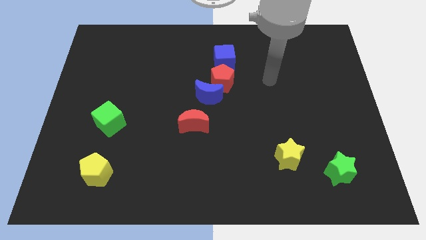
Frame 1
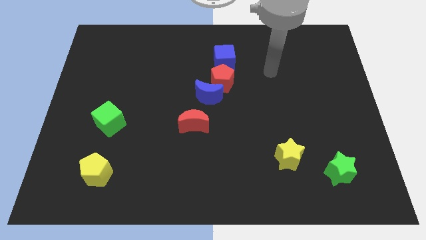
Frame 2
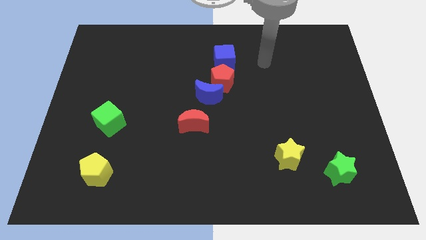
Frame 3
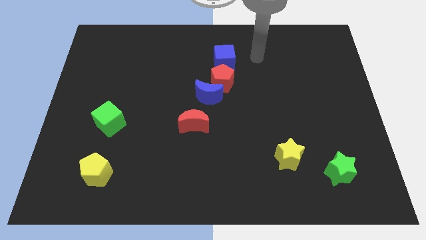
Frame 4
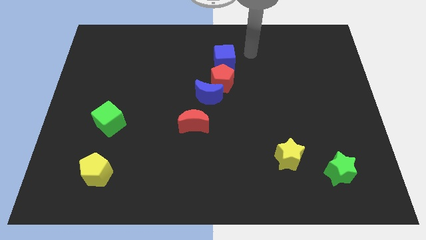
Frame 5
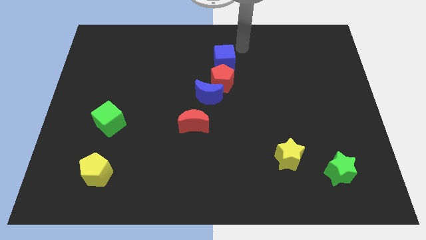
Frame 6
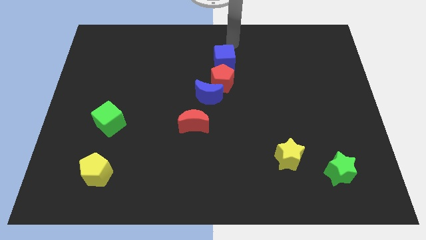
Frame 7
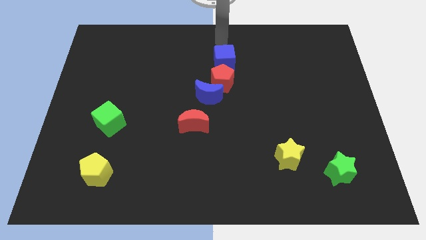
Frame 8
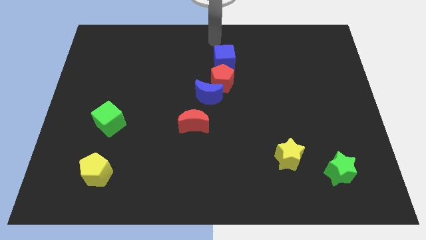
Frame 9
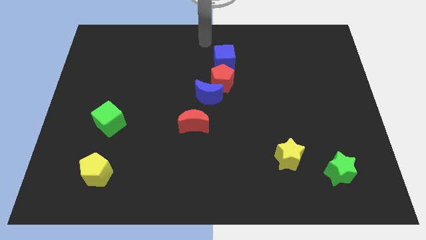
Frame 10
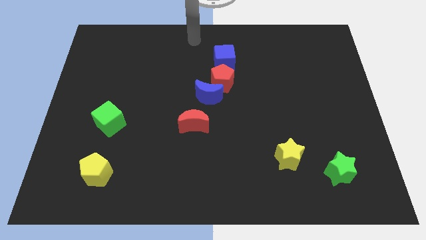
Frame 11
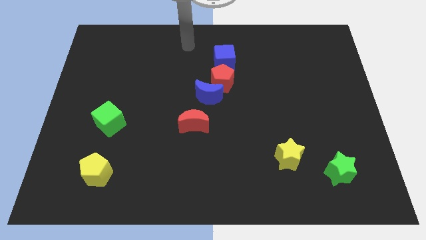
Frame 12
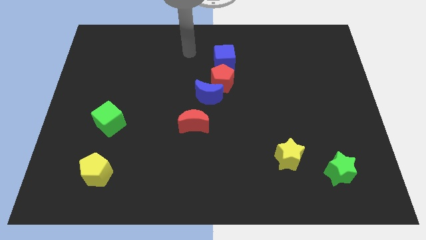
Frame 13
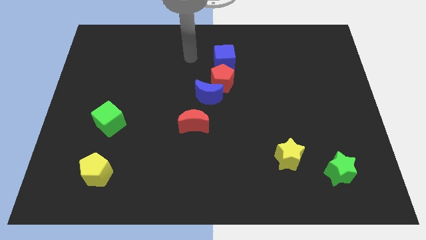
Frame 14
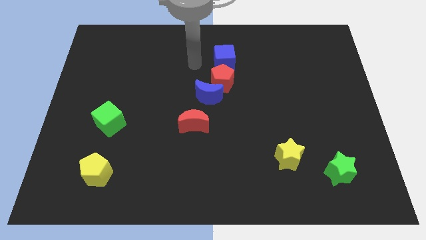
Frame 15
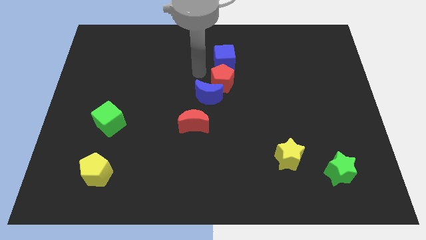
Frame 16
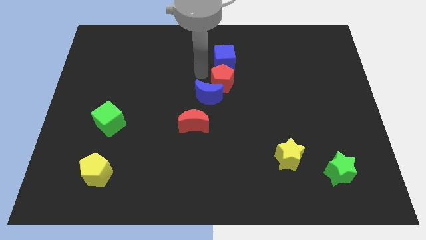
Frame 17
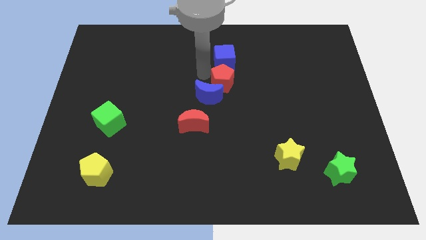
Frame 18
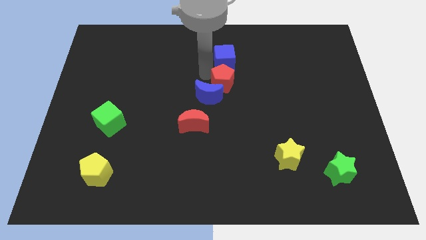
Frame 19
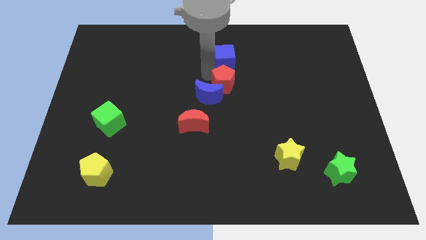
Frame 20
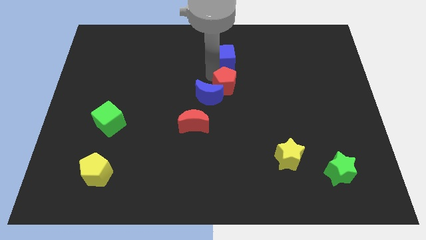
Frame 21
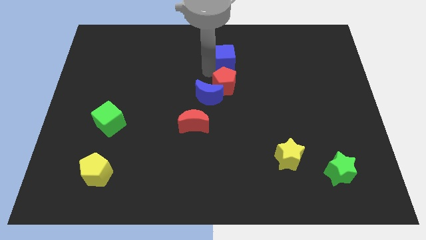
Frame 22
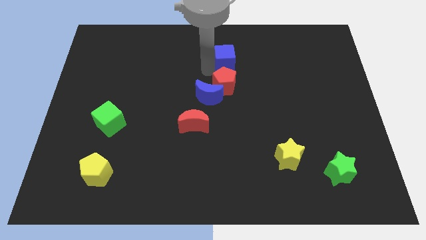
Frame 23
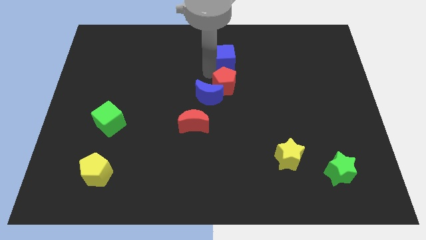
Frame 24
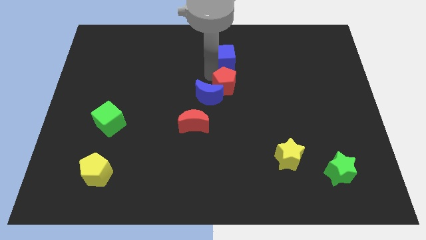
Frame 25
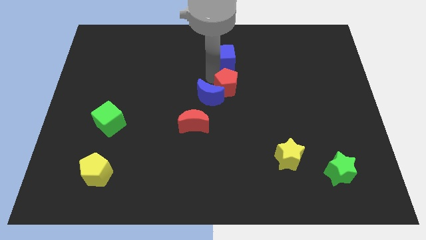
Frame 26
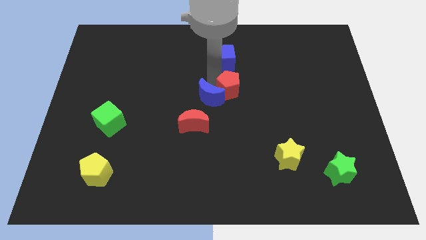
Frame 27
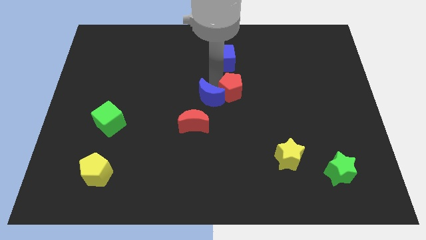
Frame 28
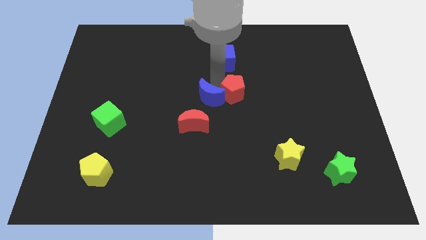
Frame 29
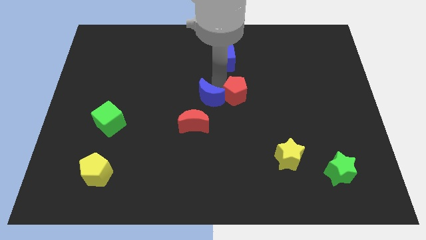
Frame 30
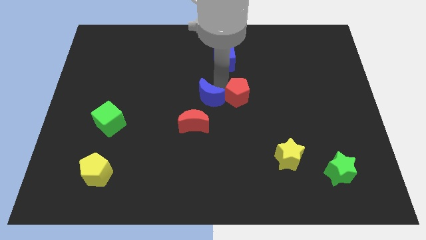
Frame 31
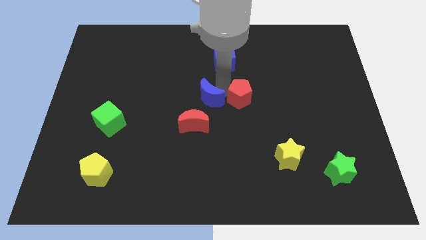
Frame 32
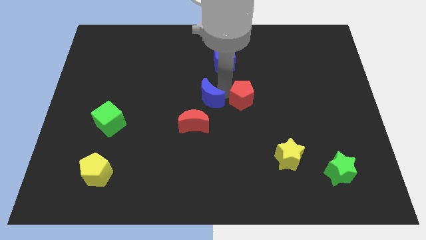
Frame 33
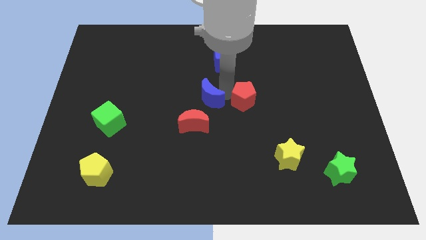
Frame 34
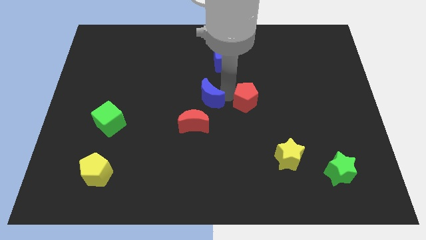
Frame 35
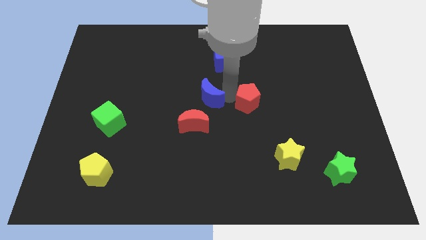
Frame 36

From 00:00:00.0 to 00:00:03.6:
pull the red pentagon apart from the blue moon and blue cube

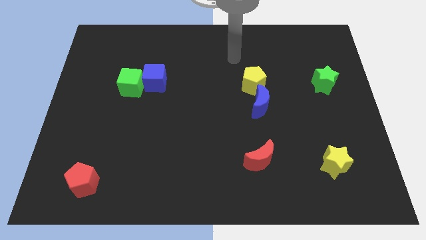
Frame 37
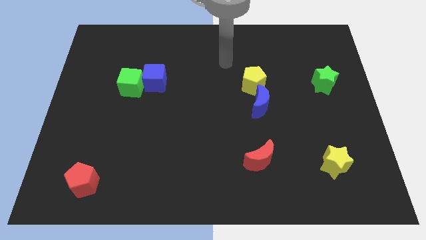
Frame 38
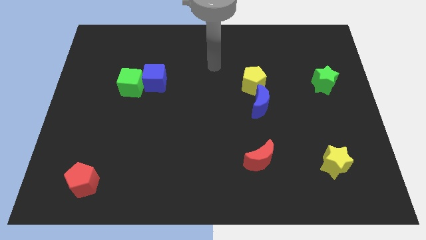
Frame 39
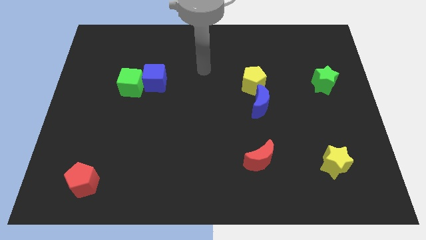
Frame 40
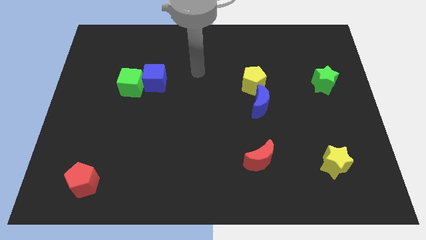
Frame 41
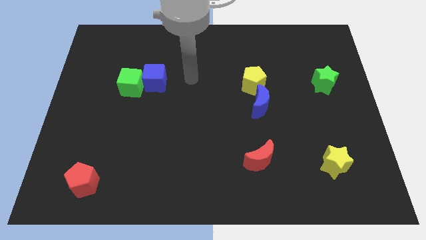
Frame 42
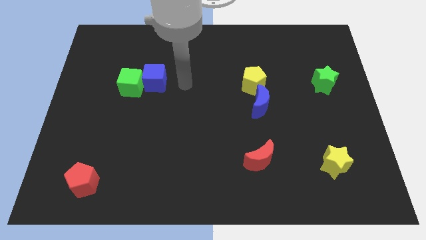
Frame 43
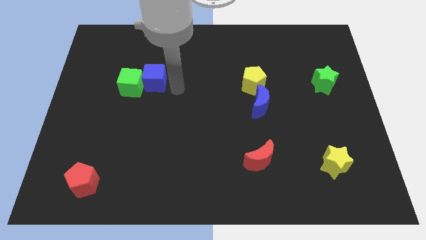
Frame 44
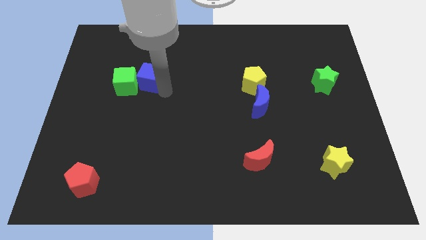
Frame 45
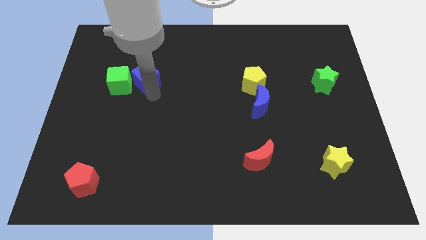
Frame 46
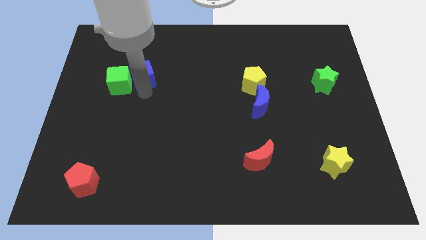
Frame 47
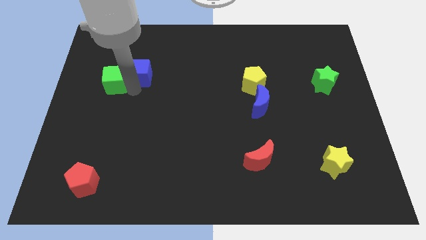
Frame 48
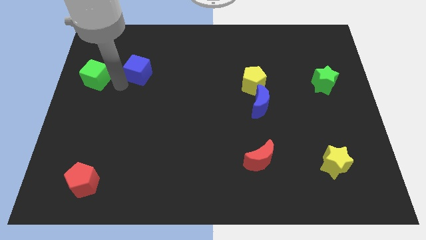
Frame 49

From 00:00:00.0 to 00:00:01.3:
separate the blue cube from the green cube

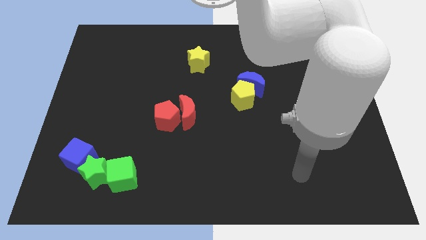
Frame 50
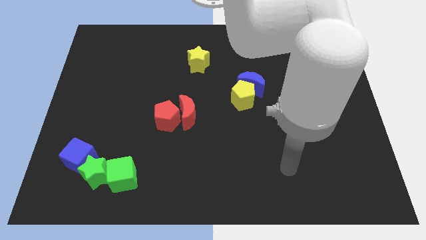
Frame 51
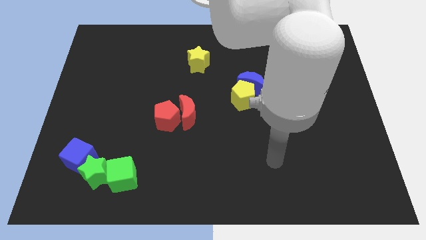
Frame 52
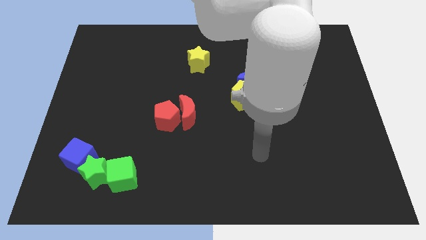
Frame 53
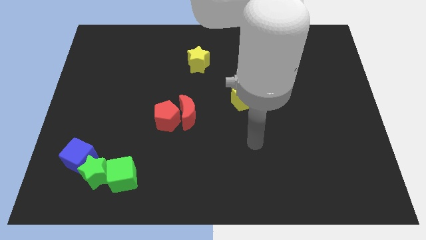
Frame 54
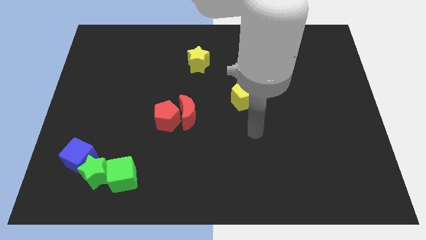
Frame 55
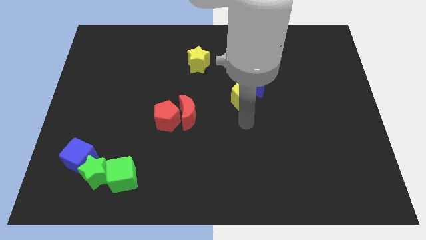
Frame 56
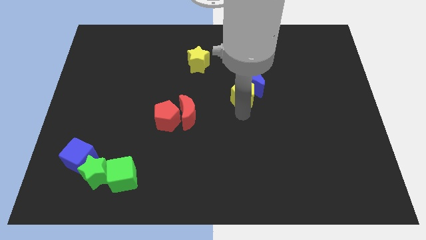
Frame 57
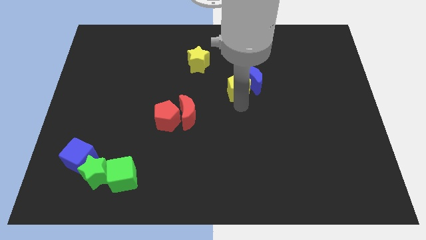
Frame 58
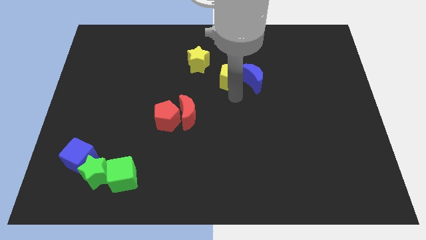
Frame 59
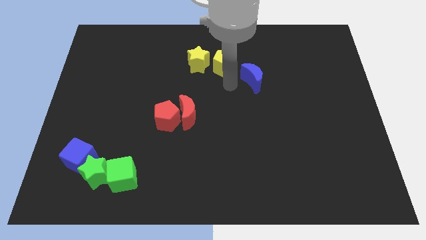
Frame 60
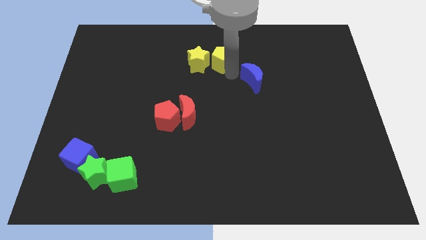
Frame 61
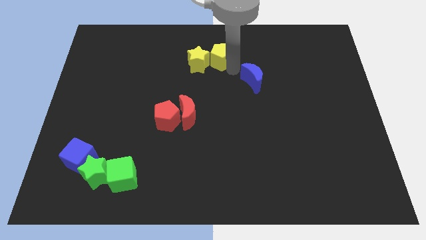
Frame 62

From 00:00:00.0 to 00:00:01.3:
move the blue moon away from the yellow pentagon

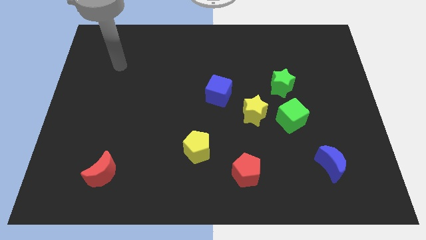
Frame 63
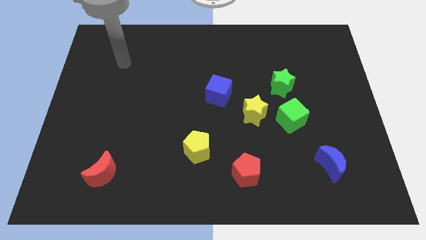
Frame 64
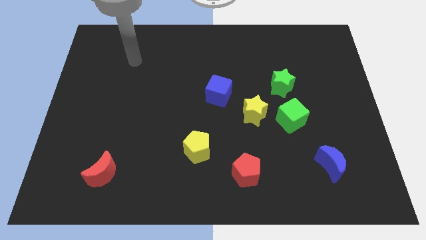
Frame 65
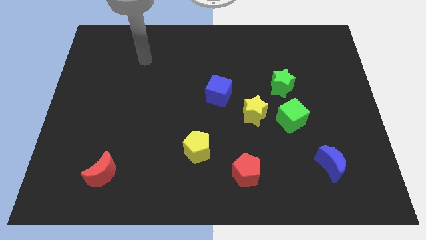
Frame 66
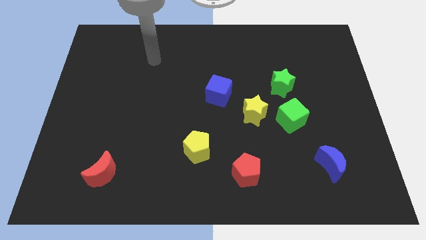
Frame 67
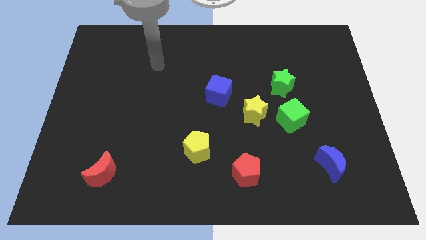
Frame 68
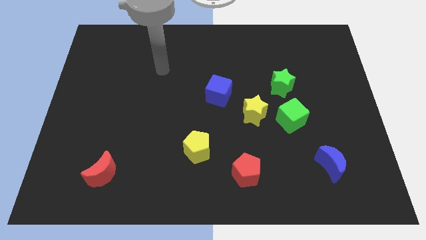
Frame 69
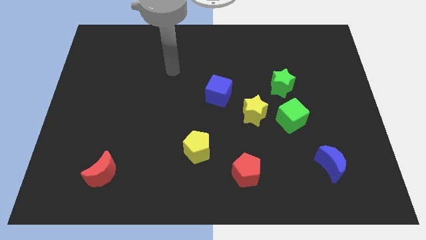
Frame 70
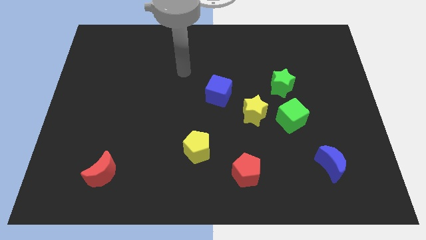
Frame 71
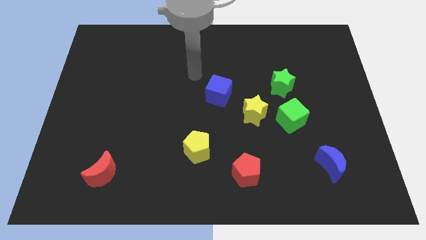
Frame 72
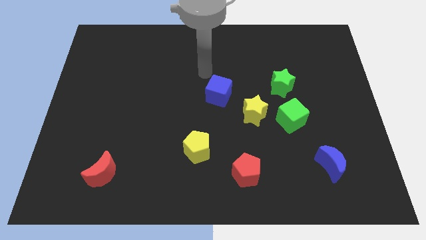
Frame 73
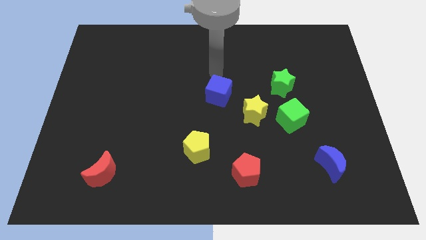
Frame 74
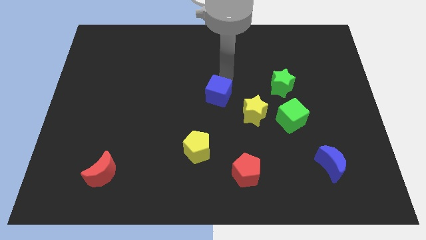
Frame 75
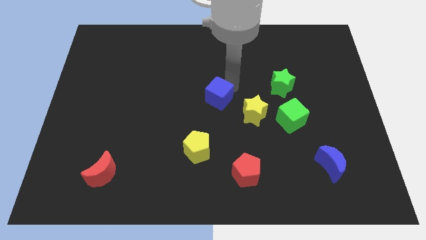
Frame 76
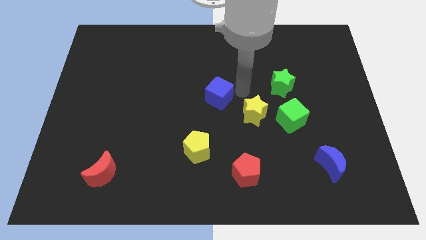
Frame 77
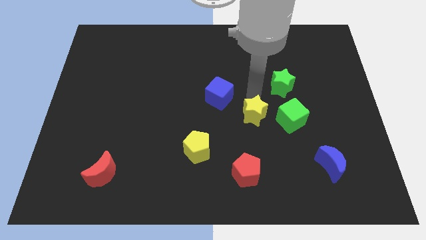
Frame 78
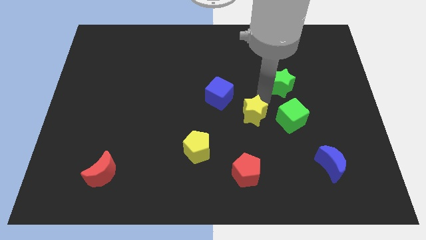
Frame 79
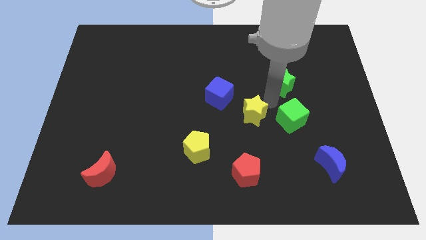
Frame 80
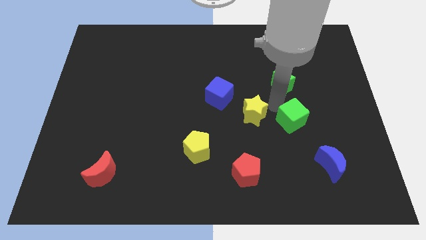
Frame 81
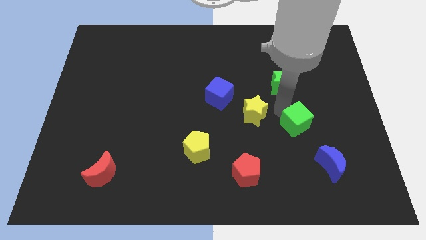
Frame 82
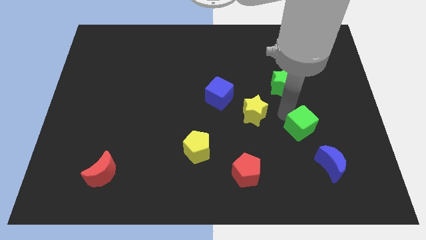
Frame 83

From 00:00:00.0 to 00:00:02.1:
pull the green cube apart from the yellow star and green star

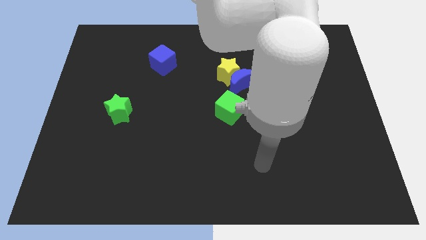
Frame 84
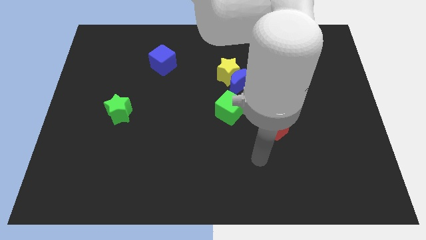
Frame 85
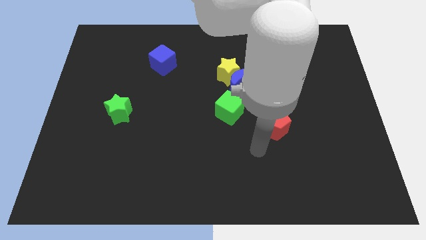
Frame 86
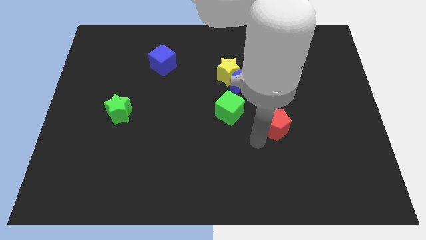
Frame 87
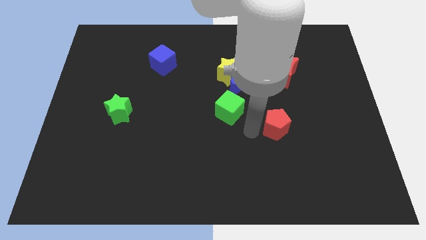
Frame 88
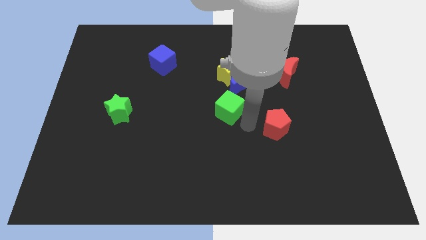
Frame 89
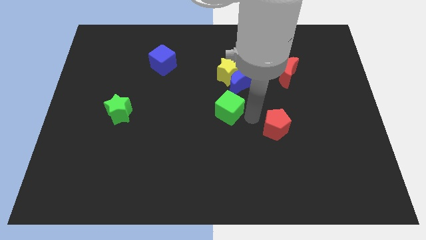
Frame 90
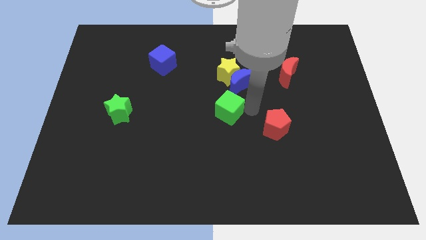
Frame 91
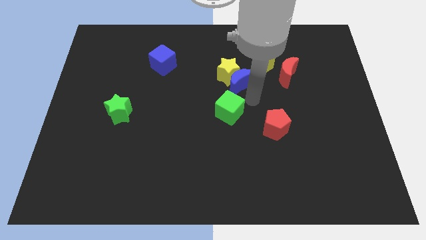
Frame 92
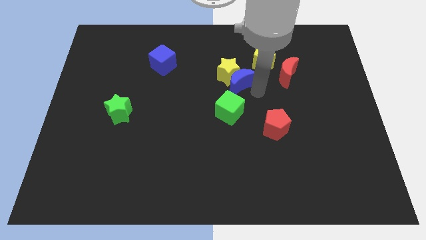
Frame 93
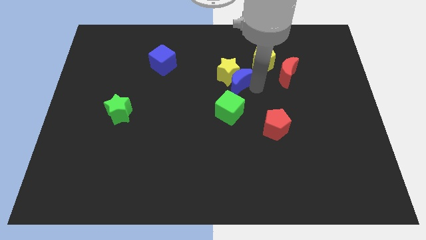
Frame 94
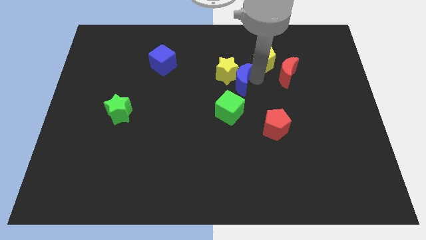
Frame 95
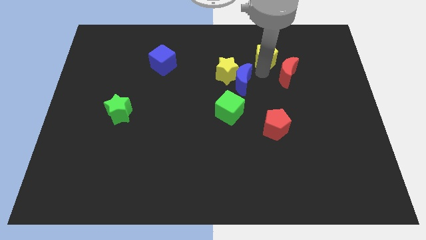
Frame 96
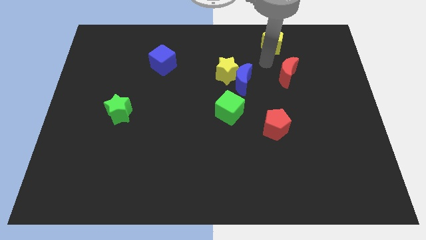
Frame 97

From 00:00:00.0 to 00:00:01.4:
move the red moon away from the yellow pentagon
